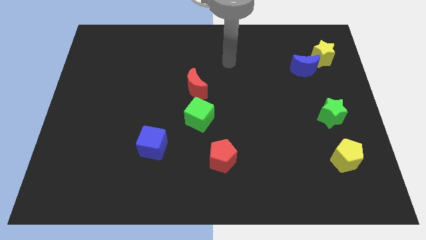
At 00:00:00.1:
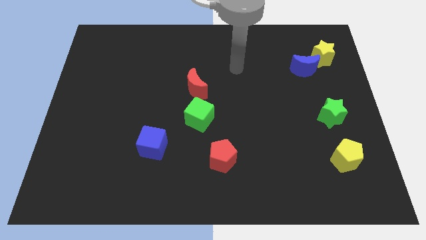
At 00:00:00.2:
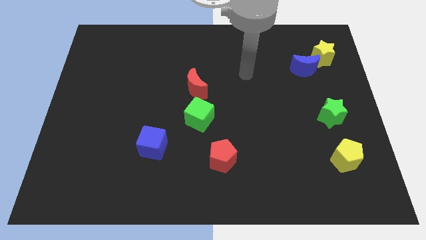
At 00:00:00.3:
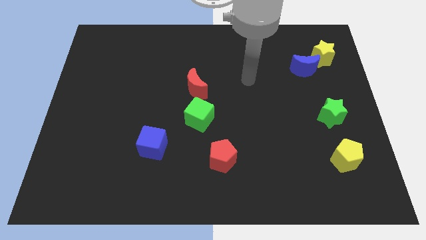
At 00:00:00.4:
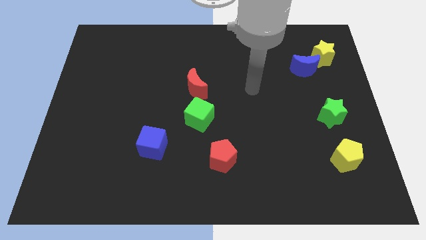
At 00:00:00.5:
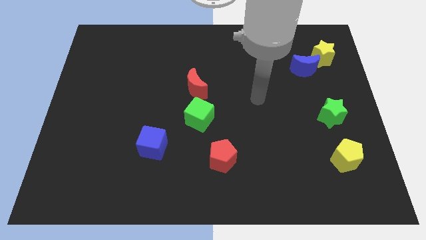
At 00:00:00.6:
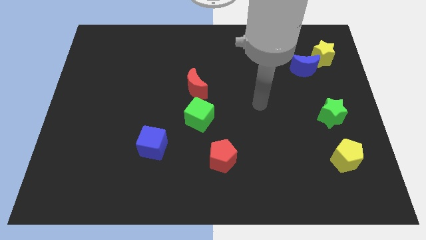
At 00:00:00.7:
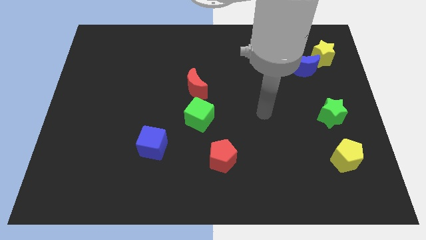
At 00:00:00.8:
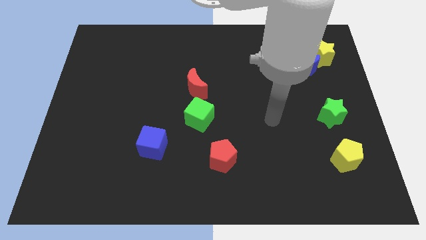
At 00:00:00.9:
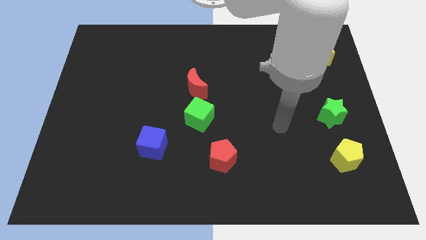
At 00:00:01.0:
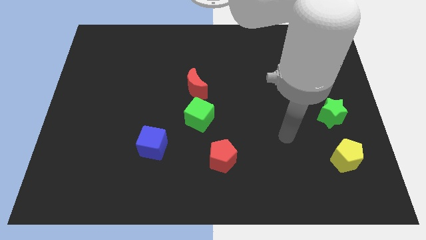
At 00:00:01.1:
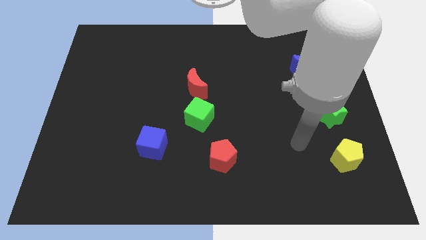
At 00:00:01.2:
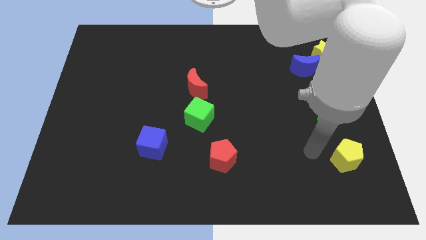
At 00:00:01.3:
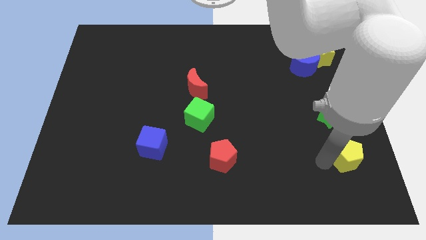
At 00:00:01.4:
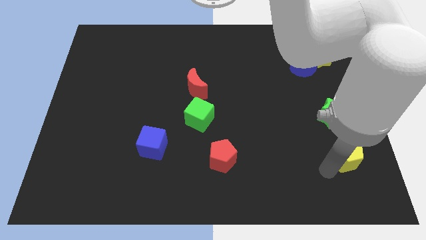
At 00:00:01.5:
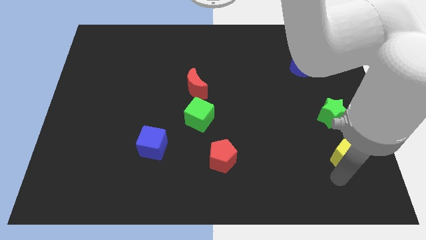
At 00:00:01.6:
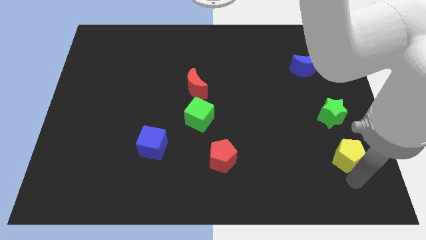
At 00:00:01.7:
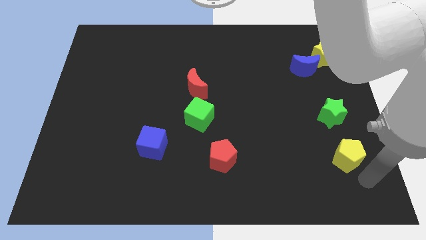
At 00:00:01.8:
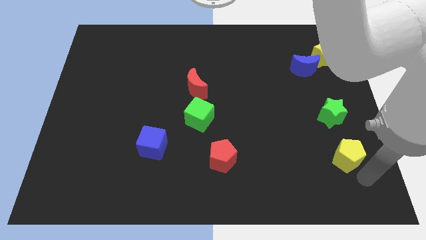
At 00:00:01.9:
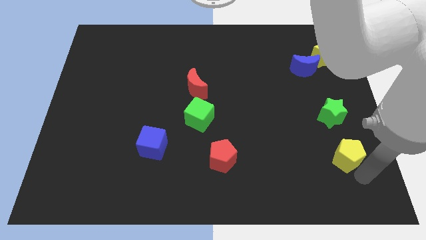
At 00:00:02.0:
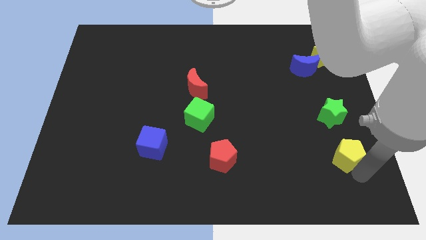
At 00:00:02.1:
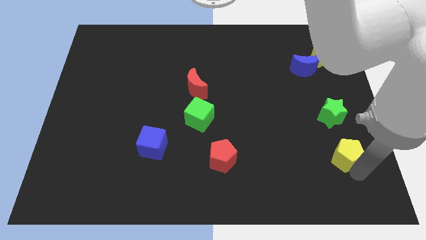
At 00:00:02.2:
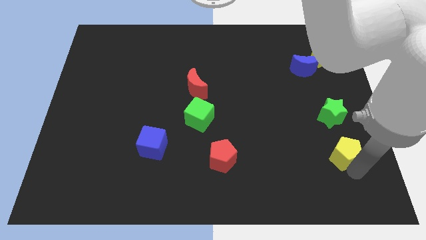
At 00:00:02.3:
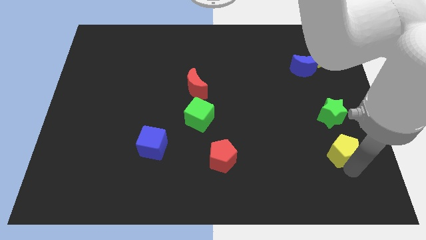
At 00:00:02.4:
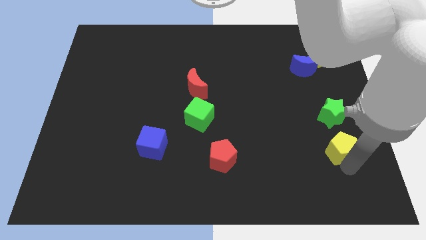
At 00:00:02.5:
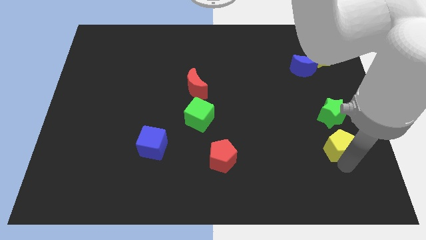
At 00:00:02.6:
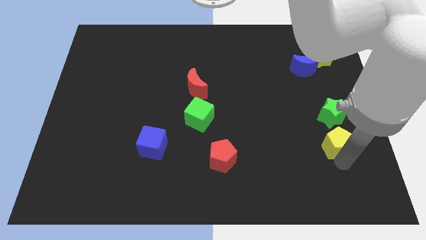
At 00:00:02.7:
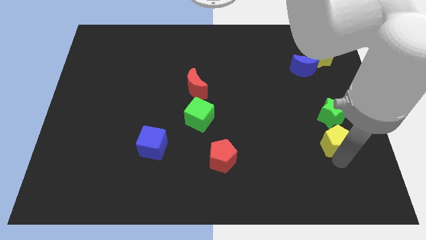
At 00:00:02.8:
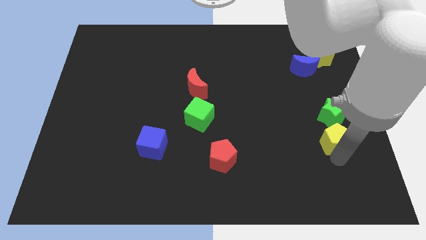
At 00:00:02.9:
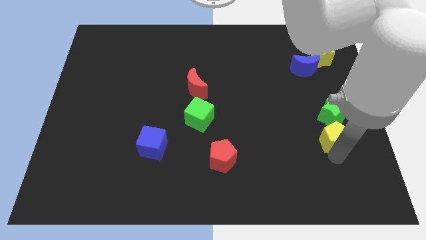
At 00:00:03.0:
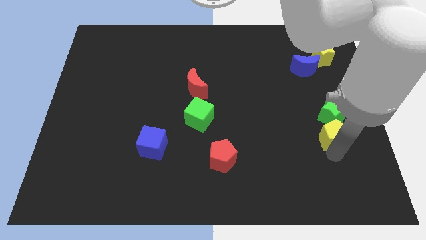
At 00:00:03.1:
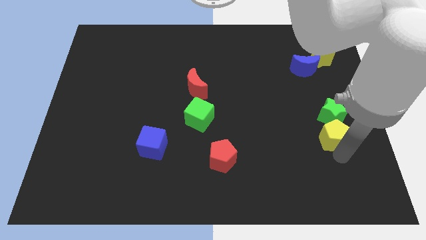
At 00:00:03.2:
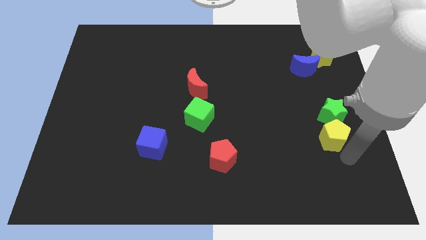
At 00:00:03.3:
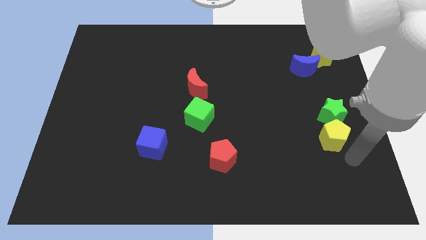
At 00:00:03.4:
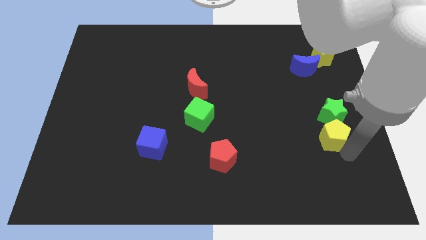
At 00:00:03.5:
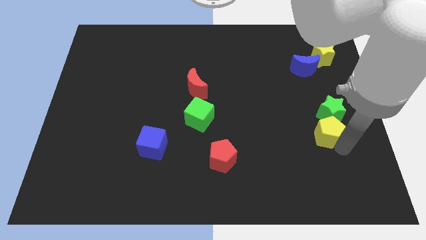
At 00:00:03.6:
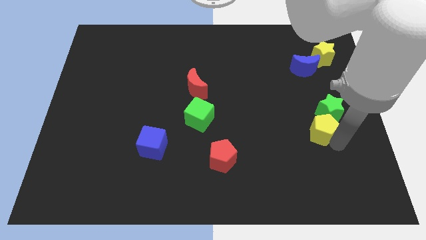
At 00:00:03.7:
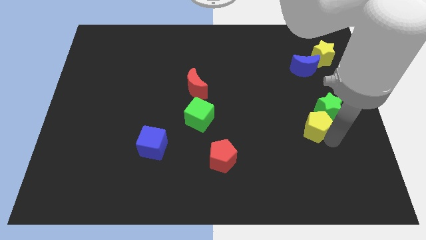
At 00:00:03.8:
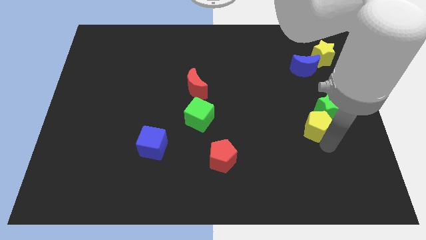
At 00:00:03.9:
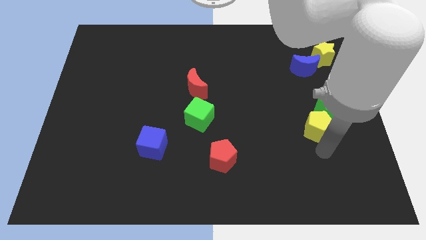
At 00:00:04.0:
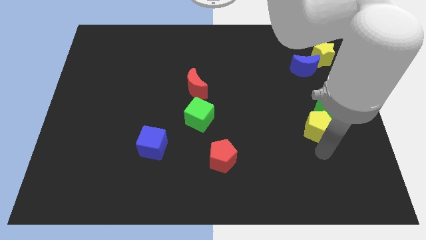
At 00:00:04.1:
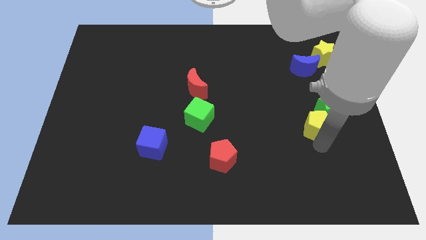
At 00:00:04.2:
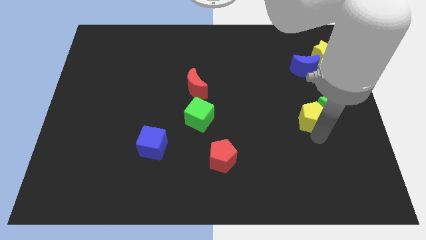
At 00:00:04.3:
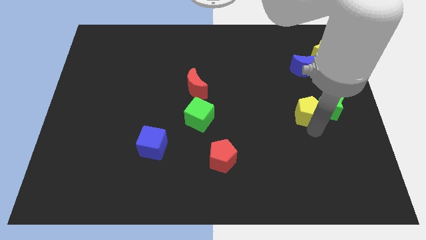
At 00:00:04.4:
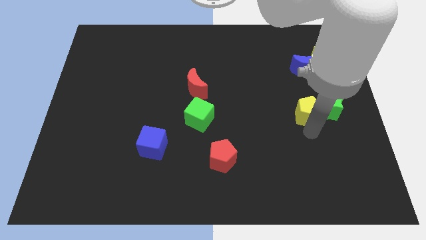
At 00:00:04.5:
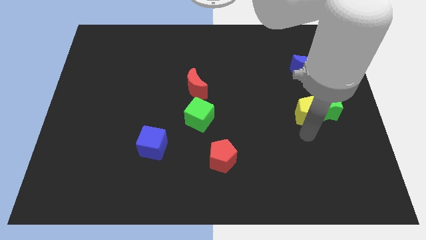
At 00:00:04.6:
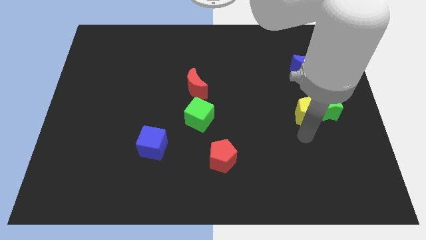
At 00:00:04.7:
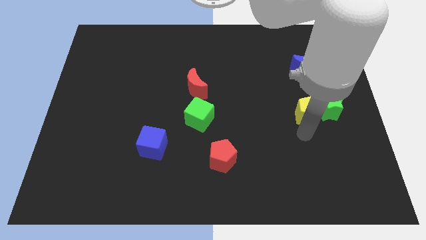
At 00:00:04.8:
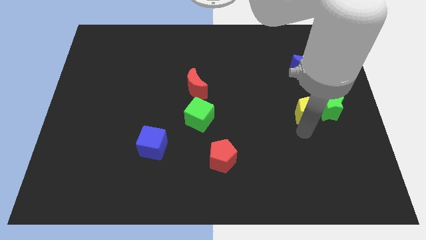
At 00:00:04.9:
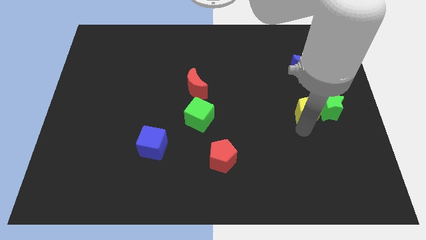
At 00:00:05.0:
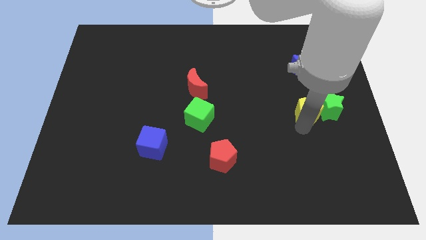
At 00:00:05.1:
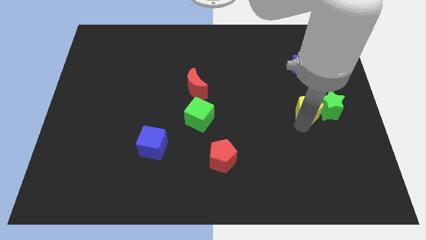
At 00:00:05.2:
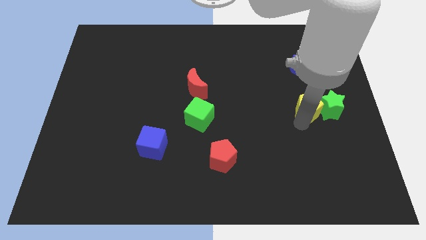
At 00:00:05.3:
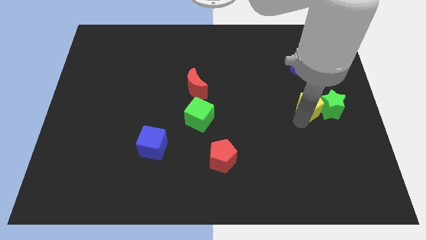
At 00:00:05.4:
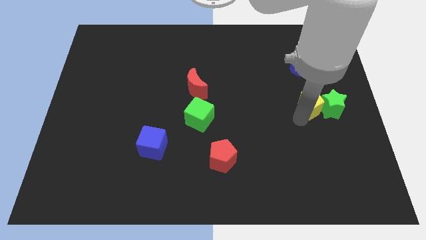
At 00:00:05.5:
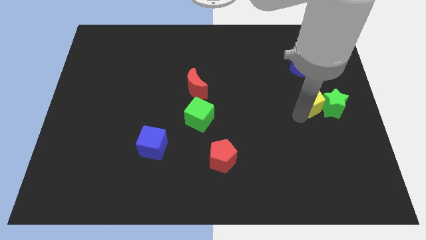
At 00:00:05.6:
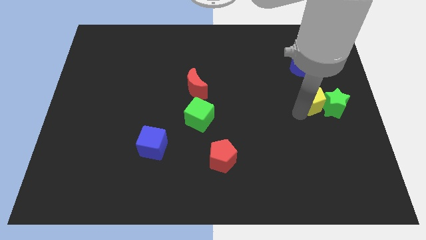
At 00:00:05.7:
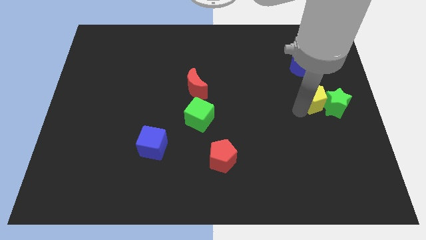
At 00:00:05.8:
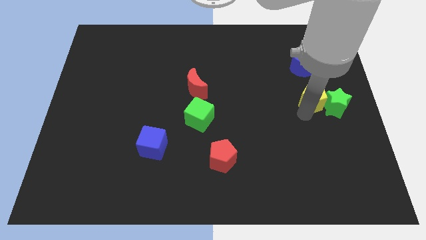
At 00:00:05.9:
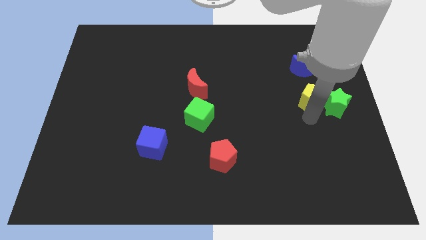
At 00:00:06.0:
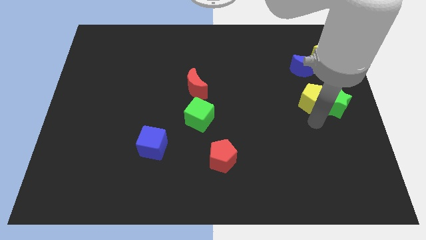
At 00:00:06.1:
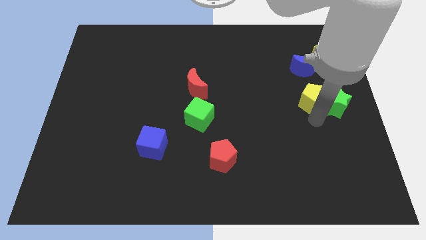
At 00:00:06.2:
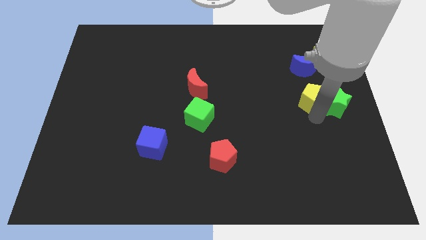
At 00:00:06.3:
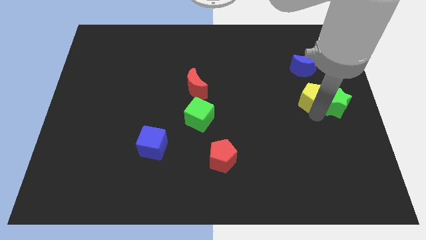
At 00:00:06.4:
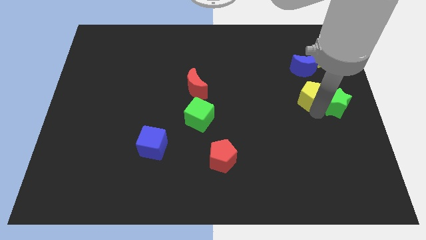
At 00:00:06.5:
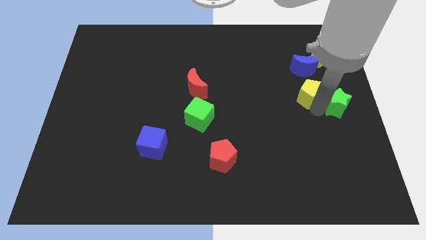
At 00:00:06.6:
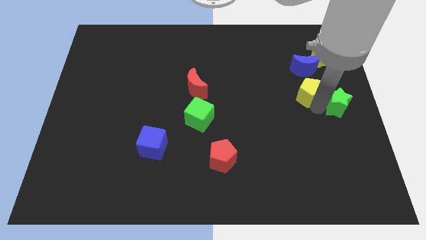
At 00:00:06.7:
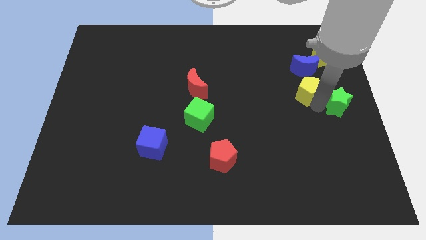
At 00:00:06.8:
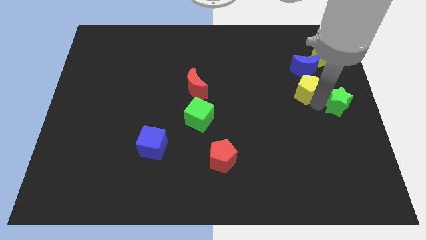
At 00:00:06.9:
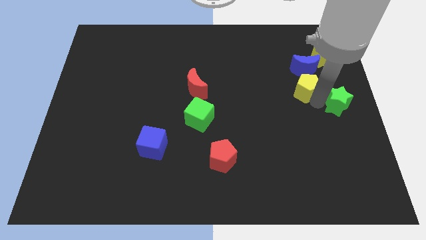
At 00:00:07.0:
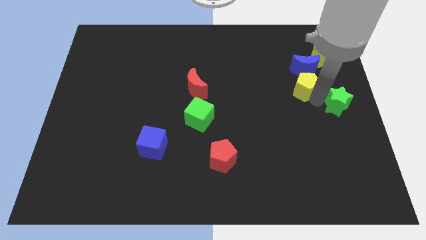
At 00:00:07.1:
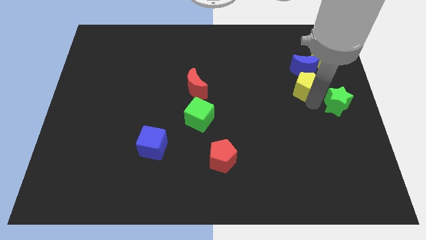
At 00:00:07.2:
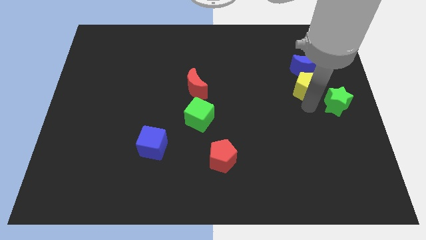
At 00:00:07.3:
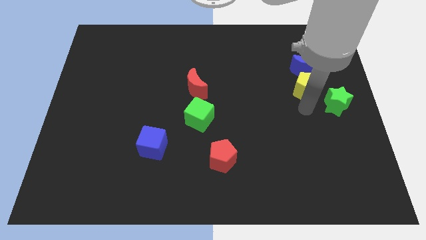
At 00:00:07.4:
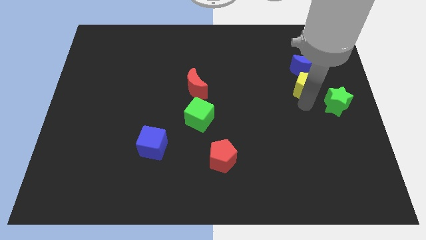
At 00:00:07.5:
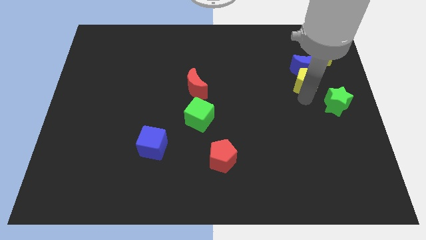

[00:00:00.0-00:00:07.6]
put the yellow pentagon to the blue moon

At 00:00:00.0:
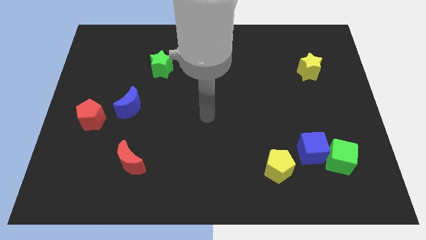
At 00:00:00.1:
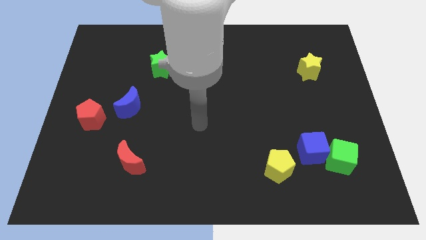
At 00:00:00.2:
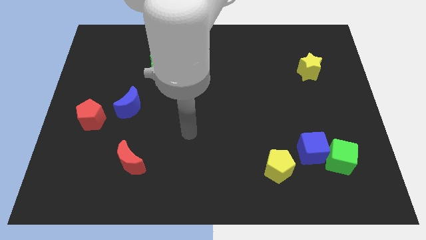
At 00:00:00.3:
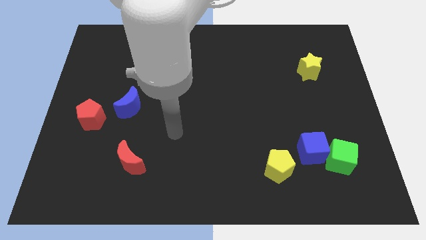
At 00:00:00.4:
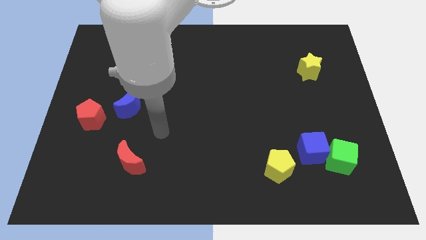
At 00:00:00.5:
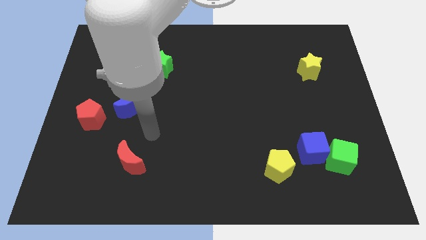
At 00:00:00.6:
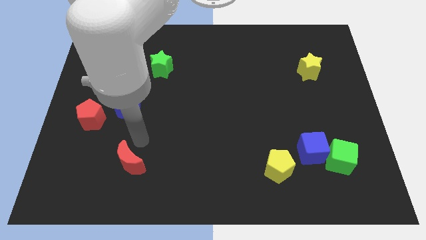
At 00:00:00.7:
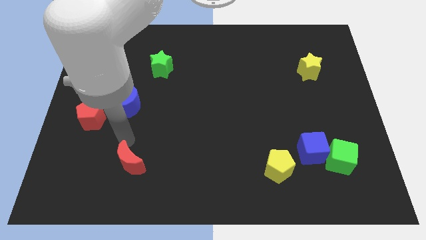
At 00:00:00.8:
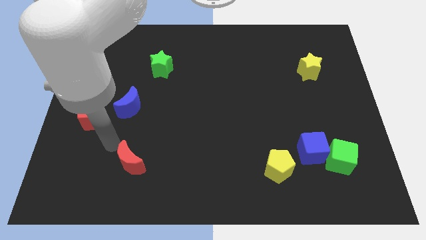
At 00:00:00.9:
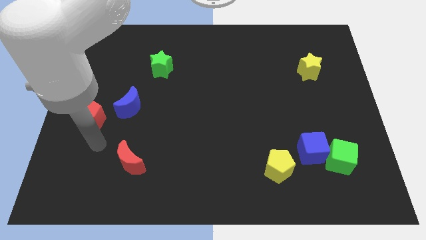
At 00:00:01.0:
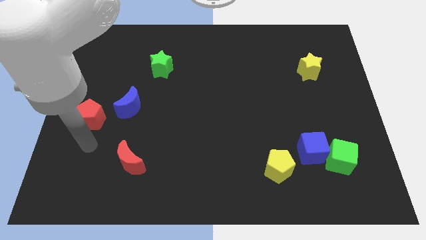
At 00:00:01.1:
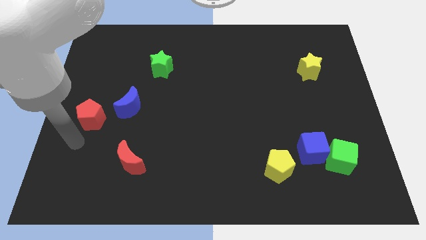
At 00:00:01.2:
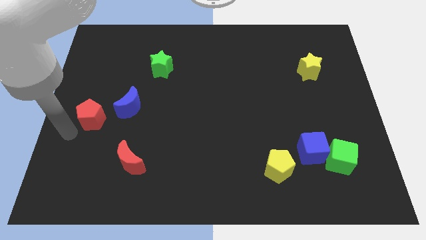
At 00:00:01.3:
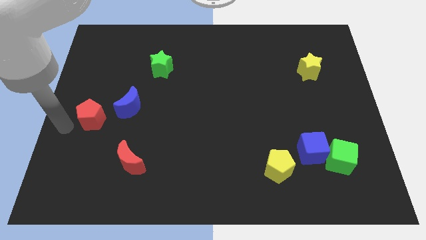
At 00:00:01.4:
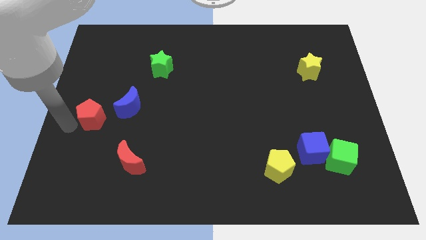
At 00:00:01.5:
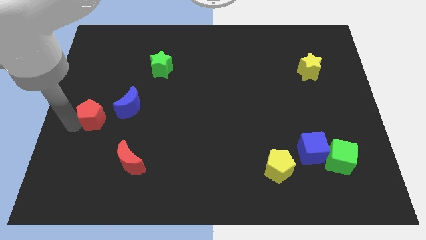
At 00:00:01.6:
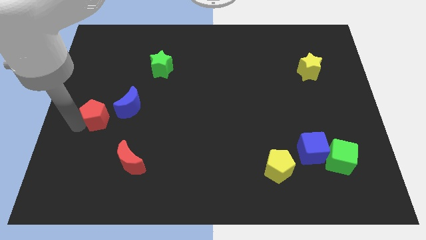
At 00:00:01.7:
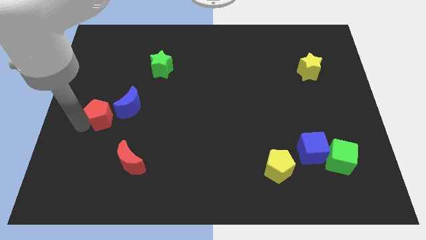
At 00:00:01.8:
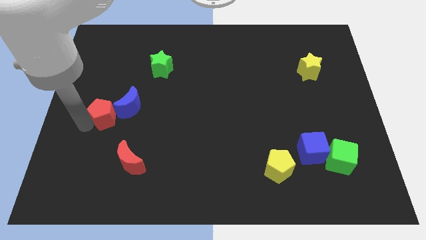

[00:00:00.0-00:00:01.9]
move the red pentagon next to the blue moon
